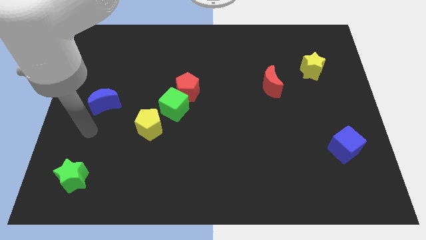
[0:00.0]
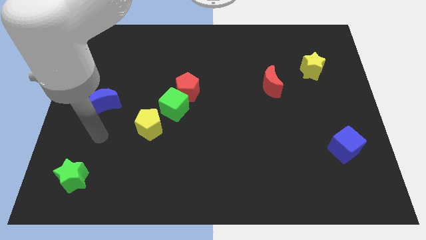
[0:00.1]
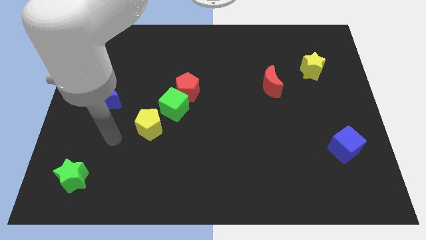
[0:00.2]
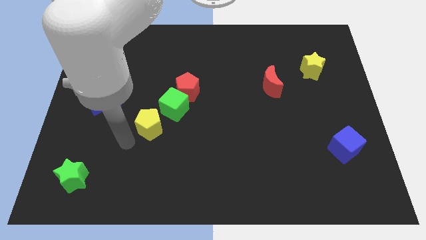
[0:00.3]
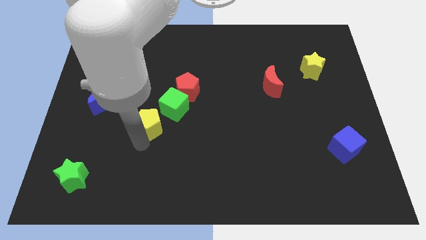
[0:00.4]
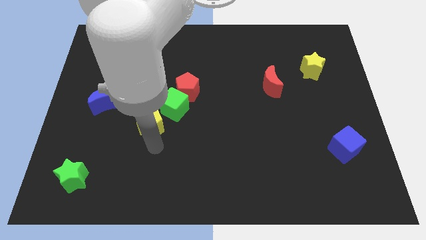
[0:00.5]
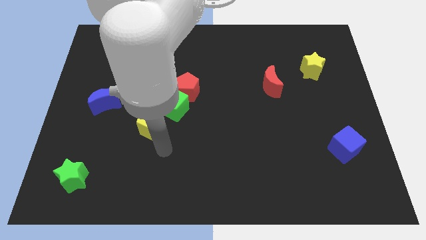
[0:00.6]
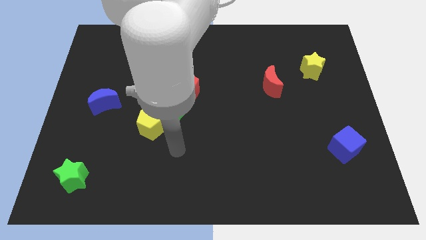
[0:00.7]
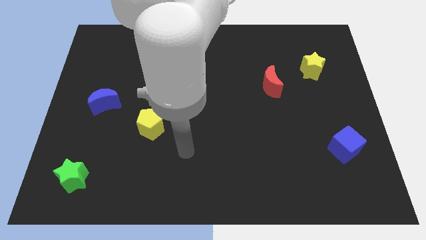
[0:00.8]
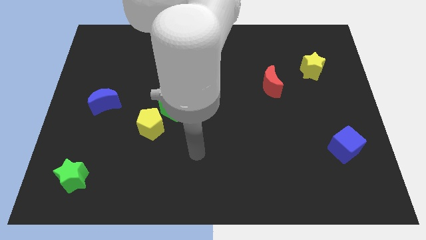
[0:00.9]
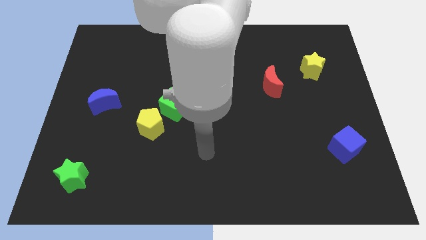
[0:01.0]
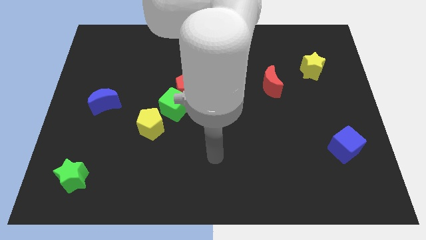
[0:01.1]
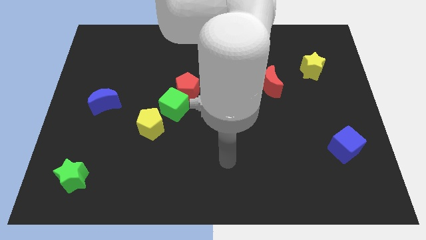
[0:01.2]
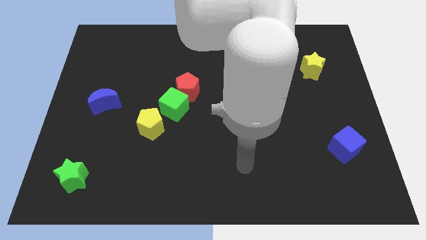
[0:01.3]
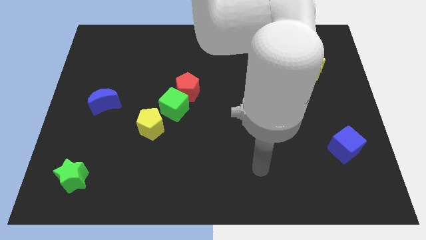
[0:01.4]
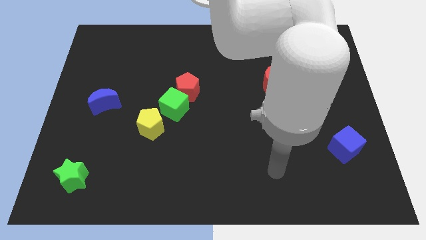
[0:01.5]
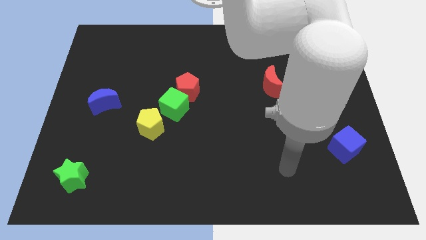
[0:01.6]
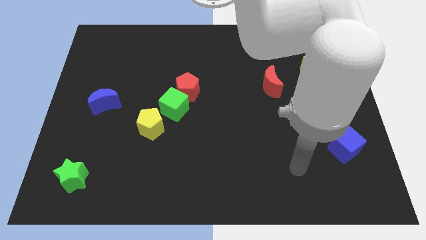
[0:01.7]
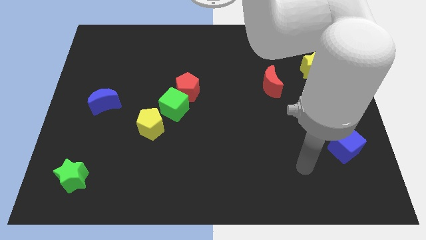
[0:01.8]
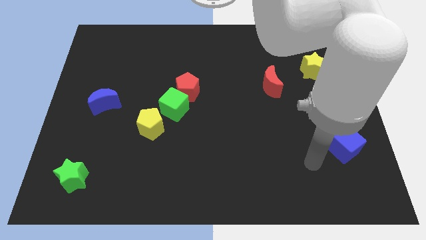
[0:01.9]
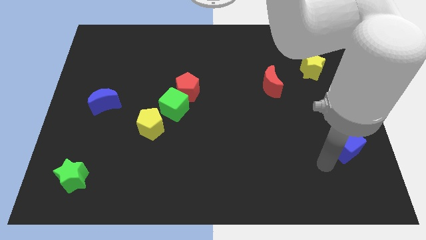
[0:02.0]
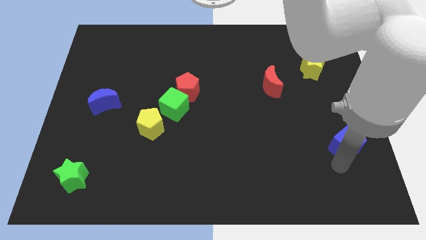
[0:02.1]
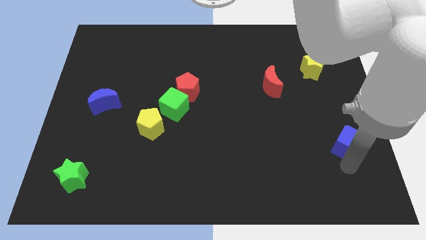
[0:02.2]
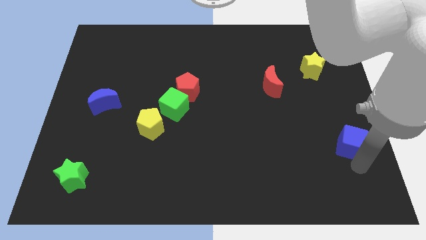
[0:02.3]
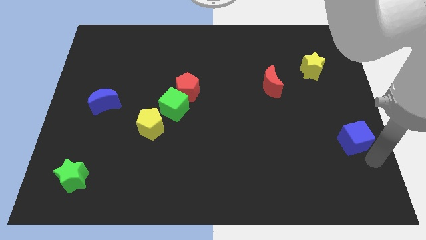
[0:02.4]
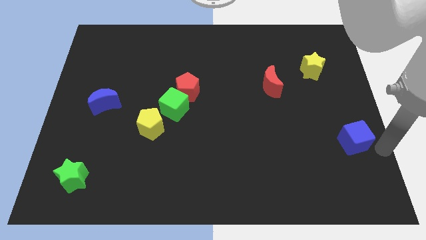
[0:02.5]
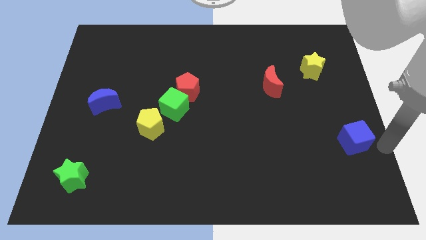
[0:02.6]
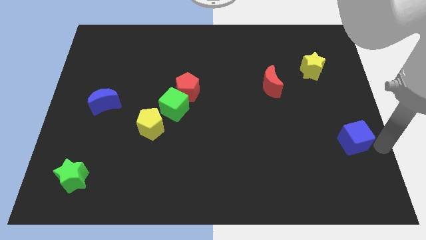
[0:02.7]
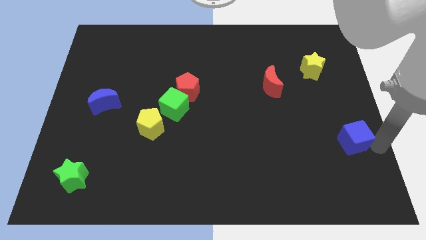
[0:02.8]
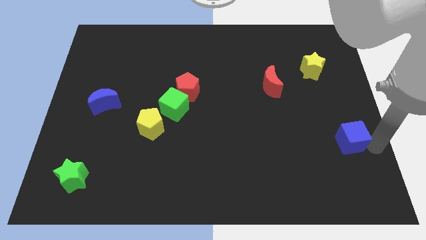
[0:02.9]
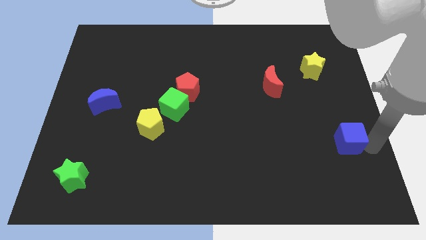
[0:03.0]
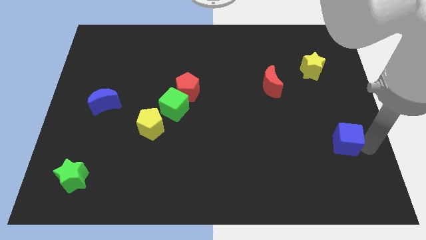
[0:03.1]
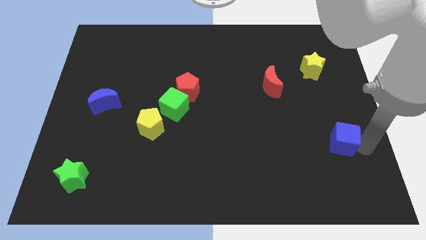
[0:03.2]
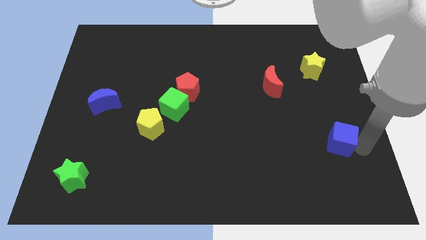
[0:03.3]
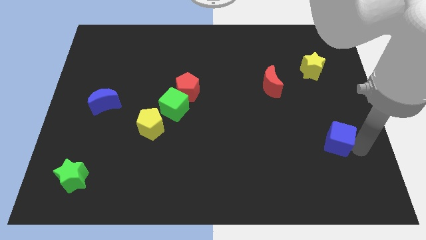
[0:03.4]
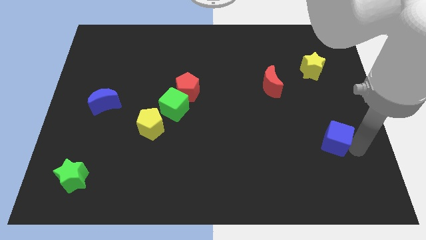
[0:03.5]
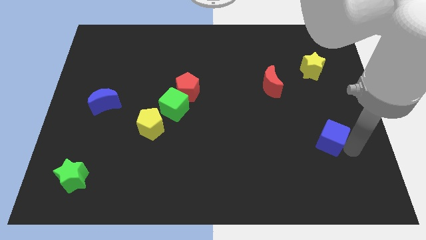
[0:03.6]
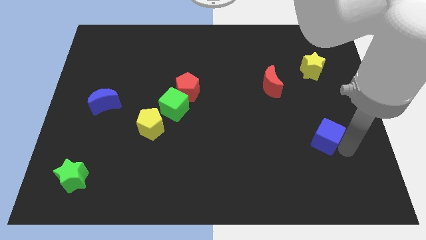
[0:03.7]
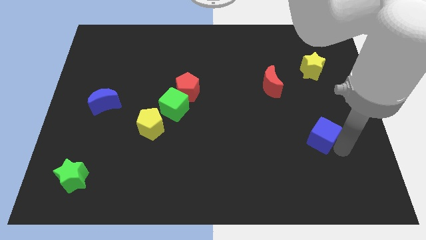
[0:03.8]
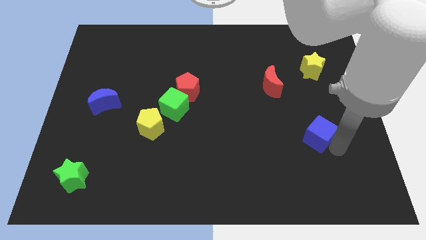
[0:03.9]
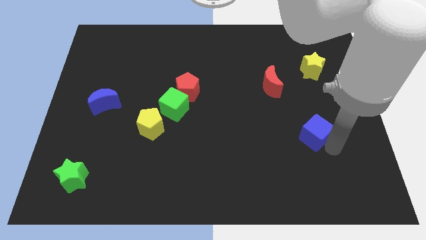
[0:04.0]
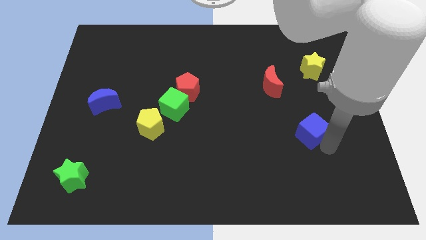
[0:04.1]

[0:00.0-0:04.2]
slightly slide the blue cube upwards and then left

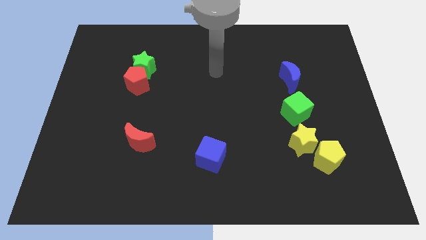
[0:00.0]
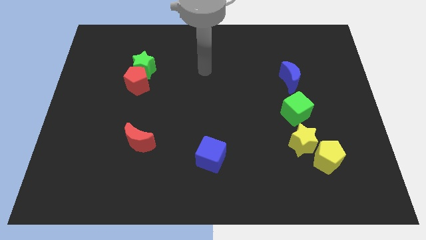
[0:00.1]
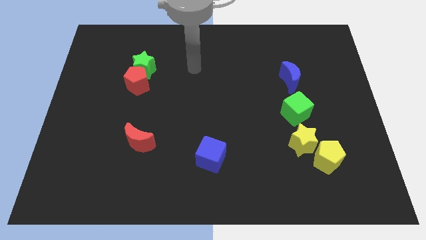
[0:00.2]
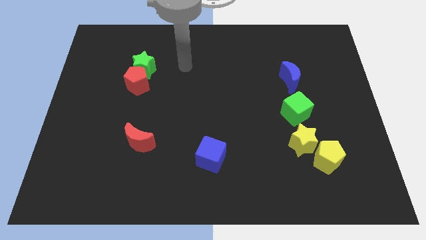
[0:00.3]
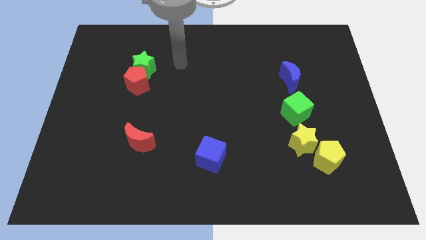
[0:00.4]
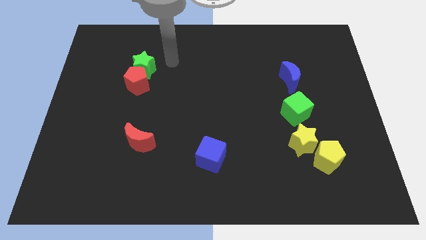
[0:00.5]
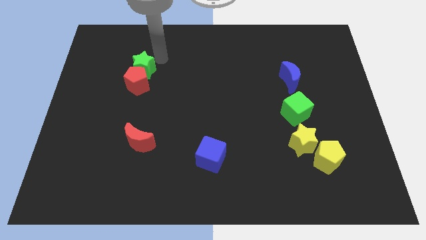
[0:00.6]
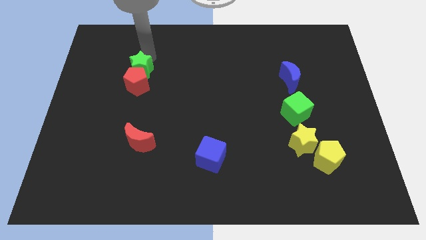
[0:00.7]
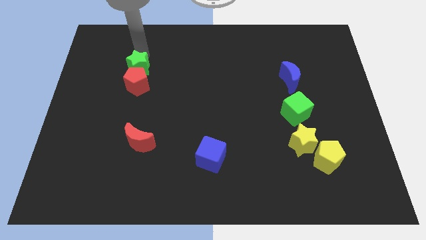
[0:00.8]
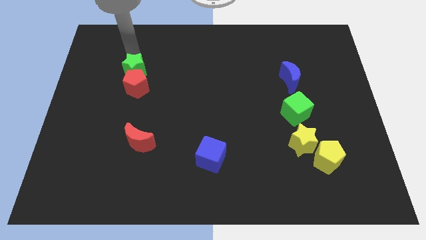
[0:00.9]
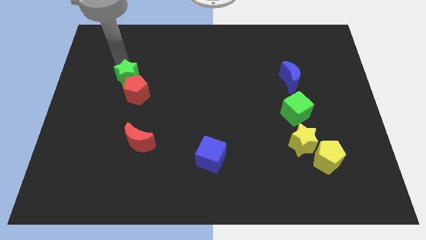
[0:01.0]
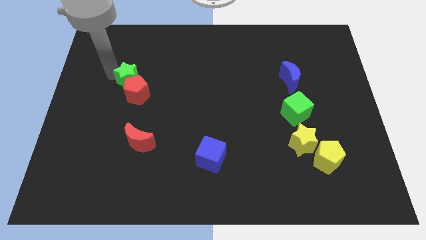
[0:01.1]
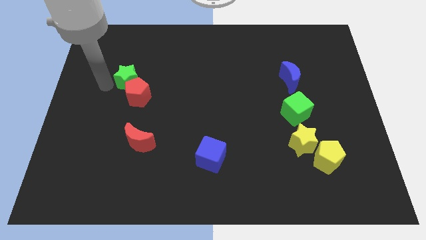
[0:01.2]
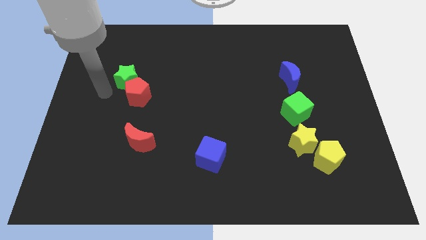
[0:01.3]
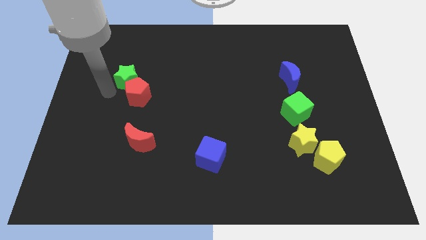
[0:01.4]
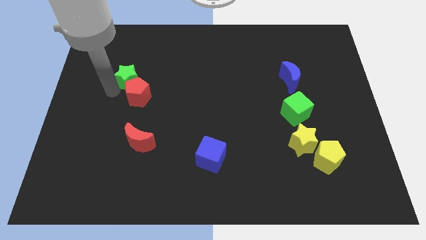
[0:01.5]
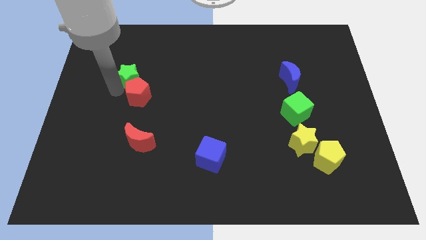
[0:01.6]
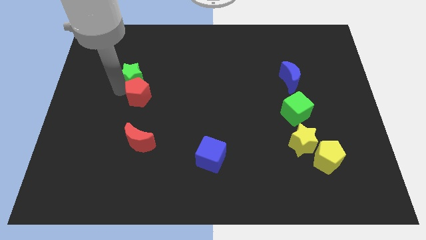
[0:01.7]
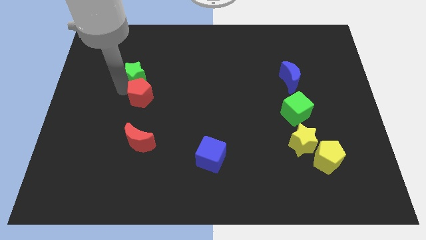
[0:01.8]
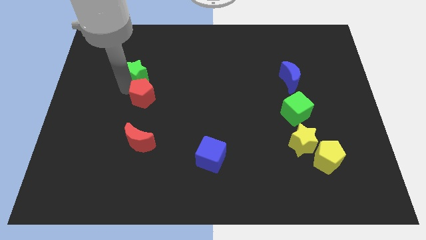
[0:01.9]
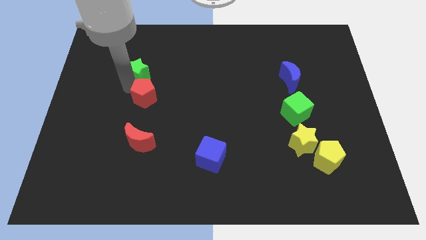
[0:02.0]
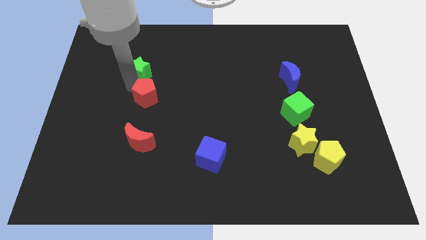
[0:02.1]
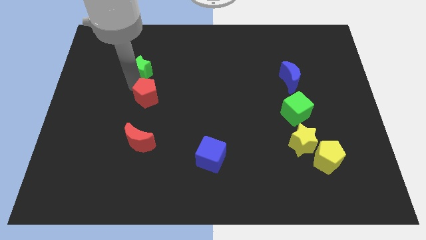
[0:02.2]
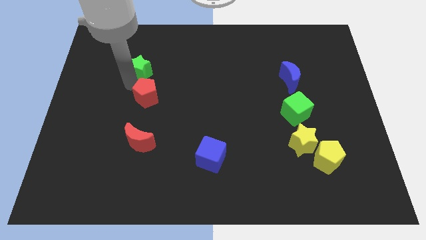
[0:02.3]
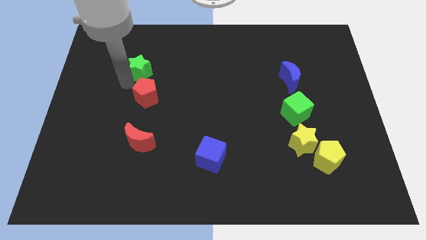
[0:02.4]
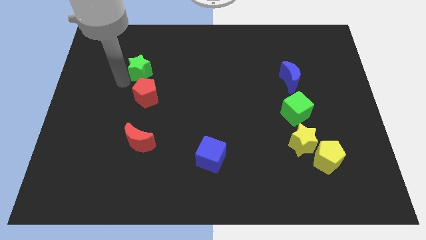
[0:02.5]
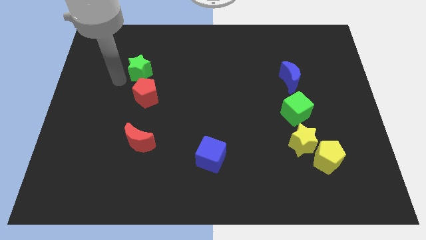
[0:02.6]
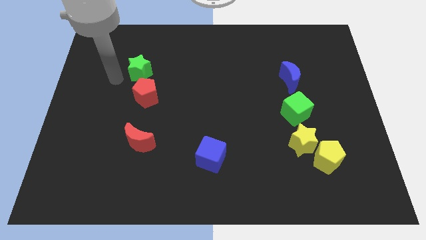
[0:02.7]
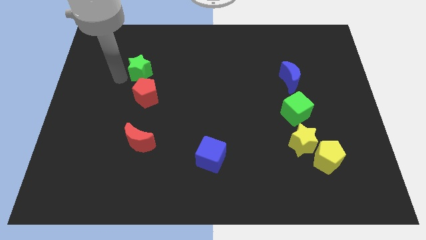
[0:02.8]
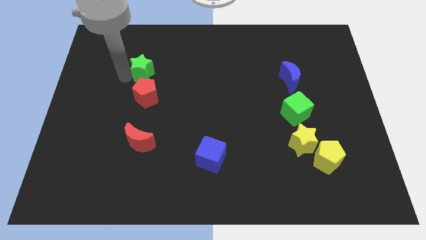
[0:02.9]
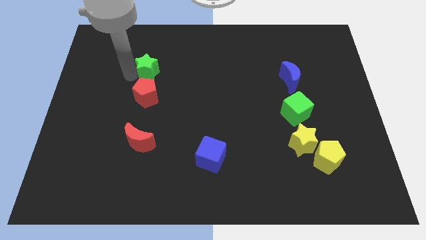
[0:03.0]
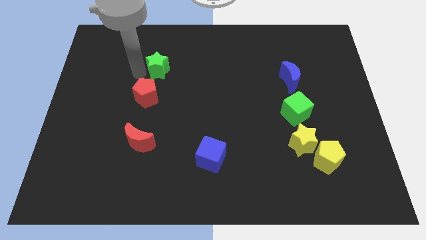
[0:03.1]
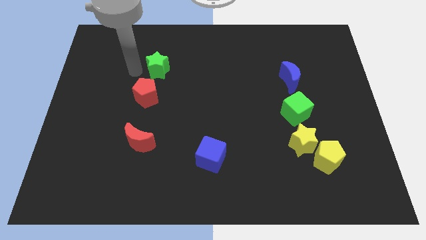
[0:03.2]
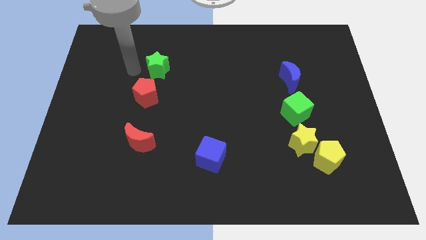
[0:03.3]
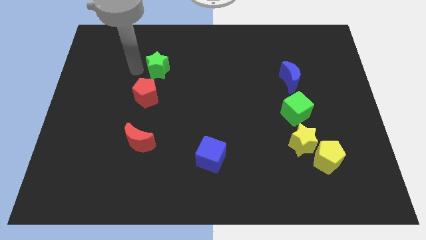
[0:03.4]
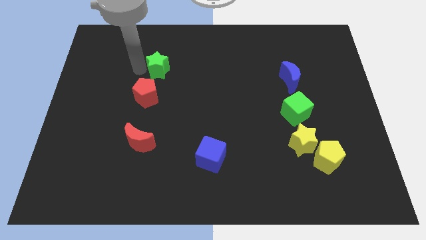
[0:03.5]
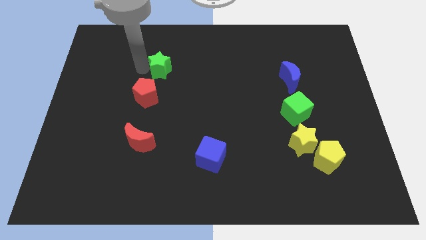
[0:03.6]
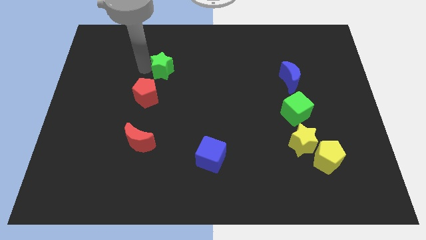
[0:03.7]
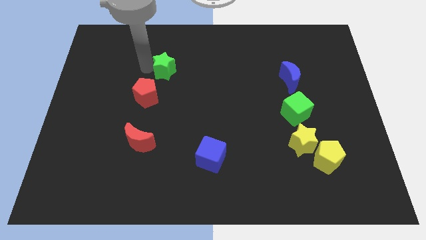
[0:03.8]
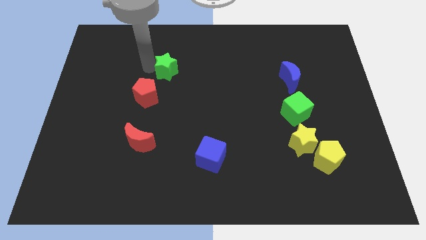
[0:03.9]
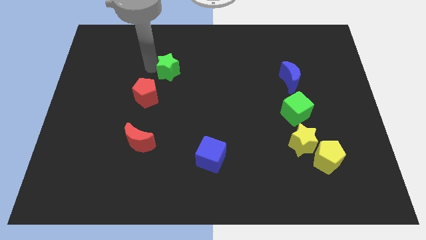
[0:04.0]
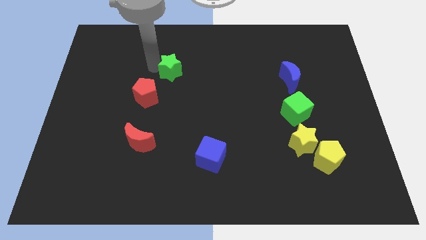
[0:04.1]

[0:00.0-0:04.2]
push the green star right a little
